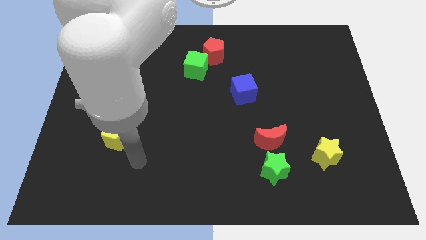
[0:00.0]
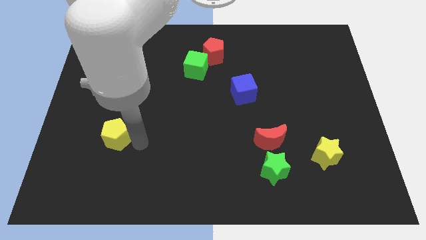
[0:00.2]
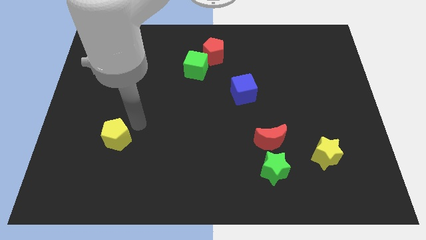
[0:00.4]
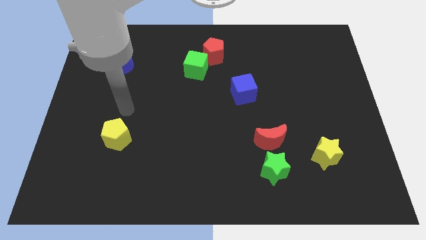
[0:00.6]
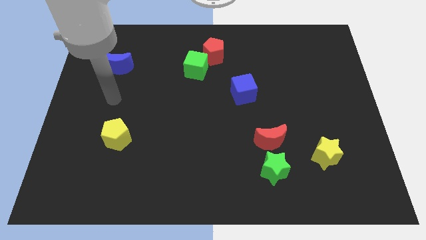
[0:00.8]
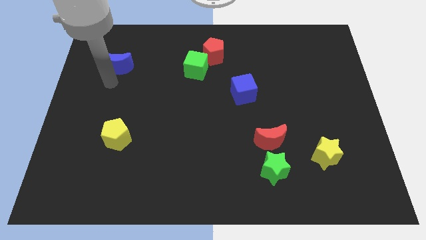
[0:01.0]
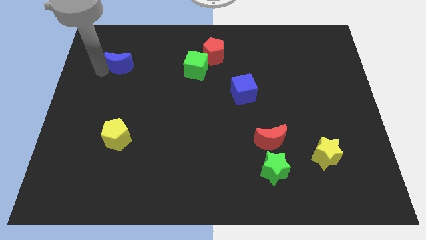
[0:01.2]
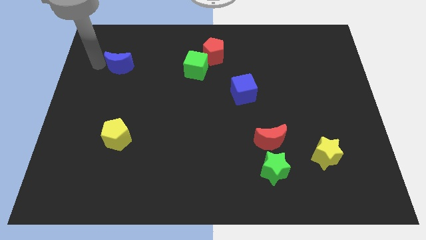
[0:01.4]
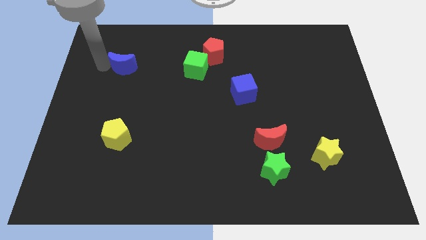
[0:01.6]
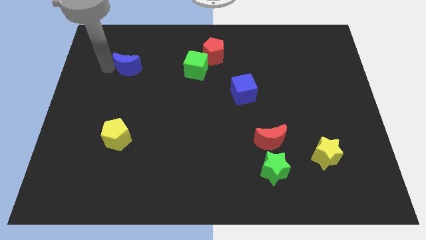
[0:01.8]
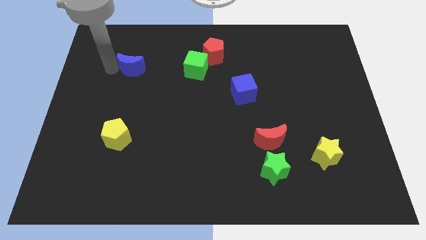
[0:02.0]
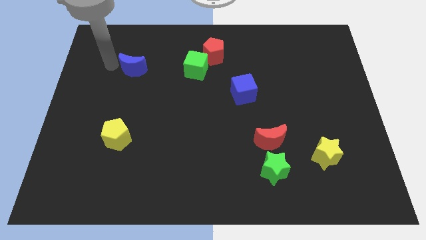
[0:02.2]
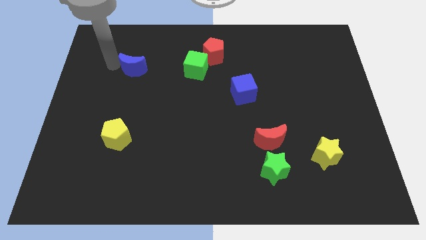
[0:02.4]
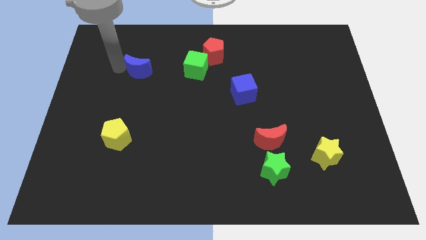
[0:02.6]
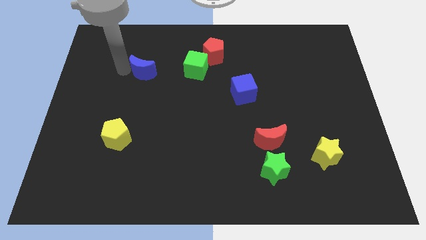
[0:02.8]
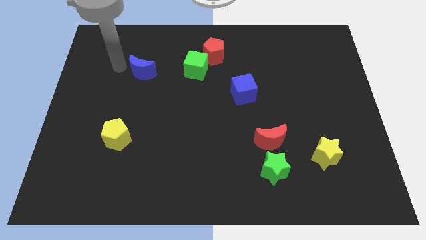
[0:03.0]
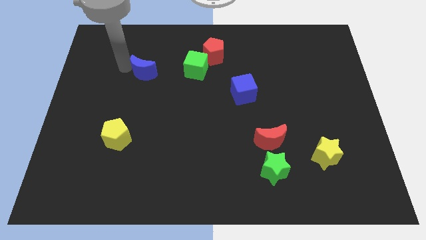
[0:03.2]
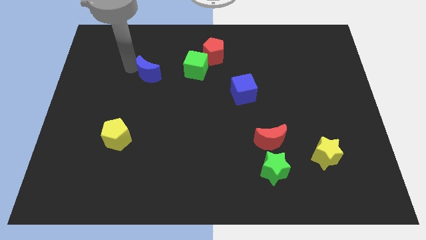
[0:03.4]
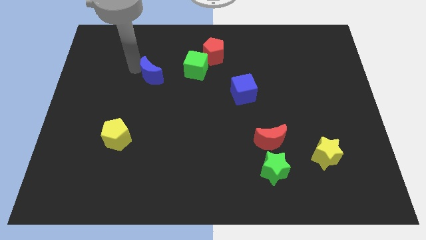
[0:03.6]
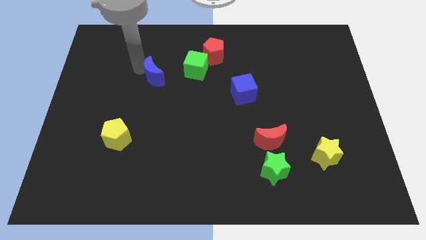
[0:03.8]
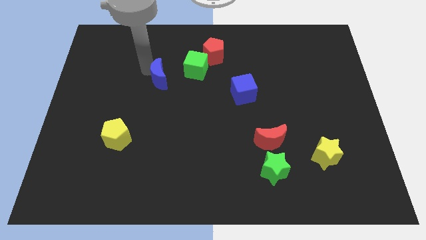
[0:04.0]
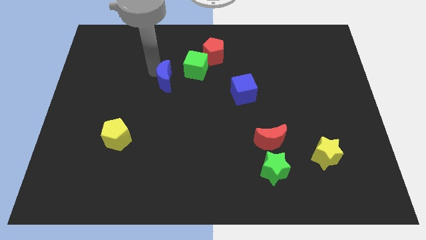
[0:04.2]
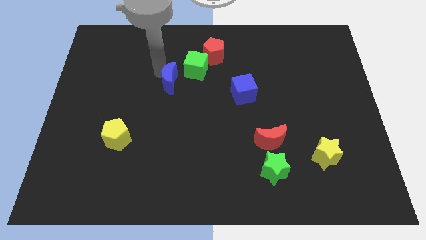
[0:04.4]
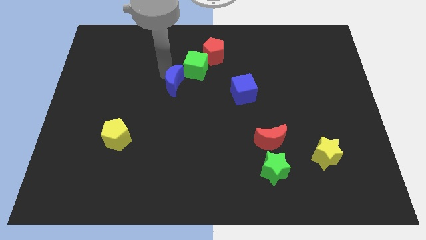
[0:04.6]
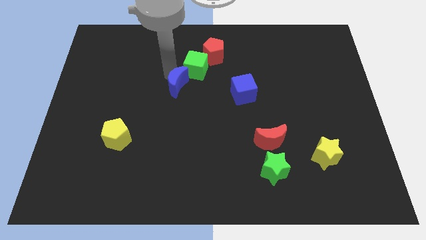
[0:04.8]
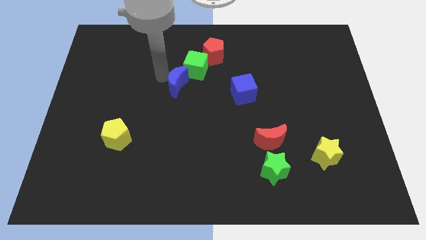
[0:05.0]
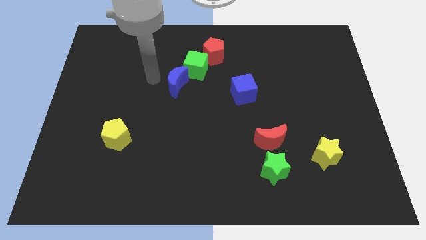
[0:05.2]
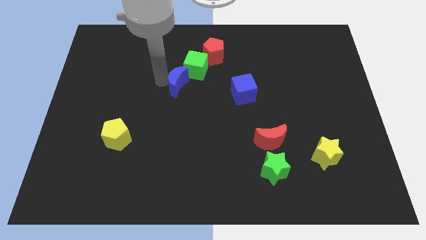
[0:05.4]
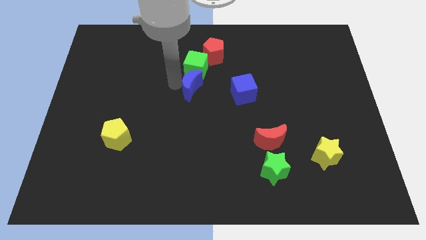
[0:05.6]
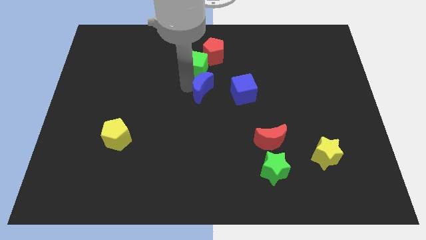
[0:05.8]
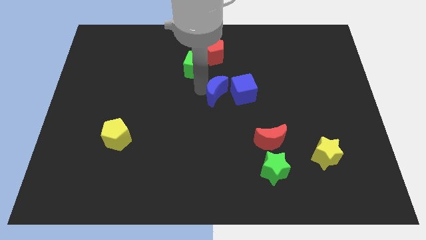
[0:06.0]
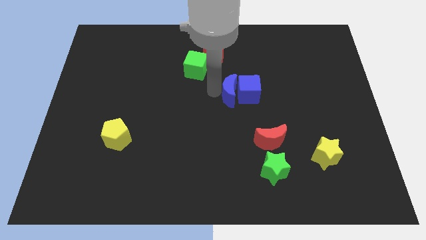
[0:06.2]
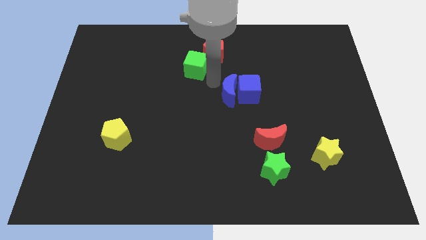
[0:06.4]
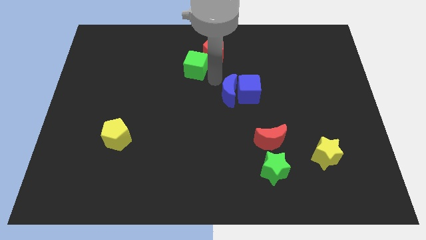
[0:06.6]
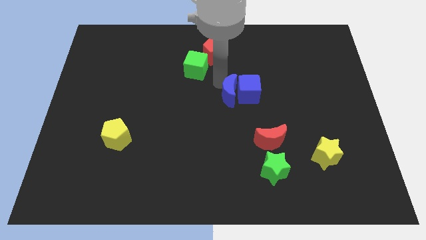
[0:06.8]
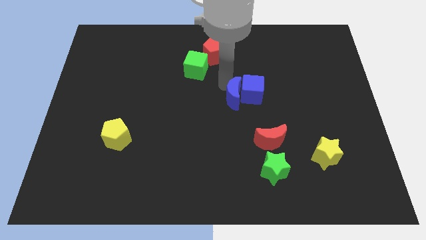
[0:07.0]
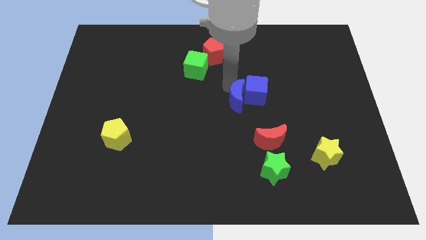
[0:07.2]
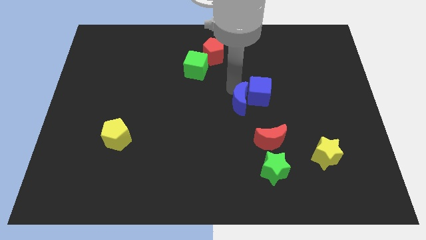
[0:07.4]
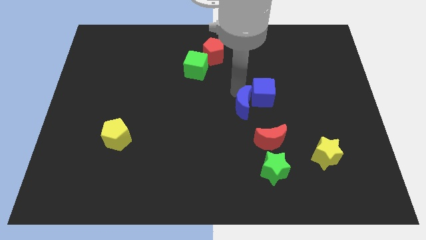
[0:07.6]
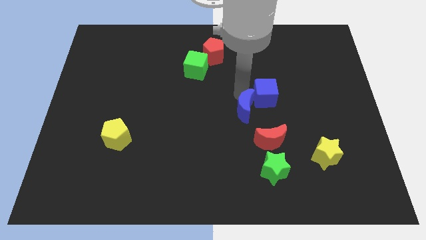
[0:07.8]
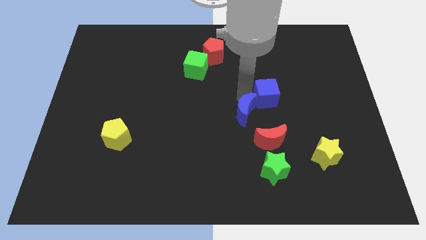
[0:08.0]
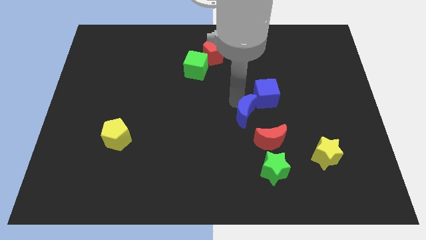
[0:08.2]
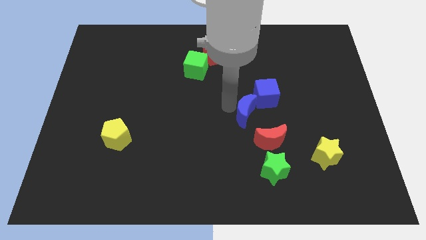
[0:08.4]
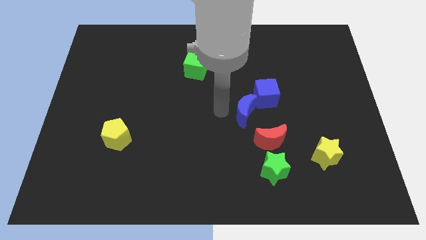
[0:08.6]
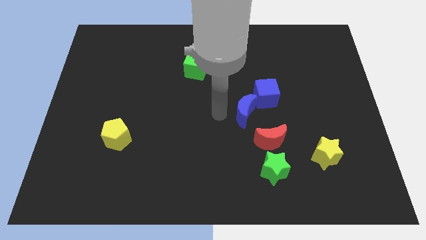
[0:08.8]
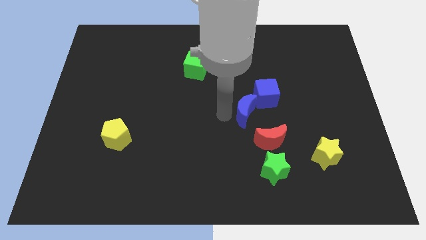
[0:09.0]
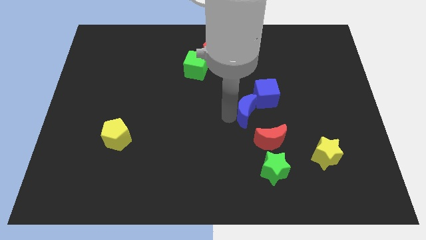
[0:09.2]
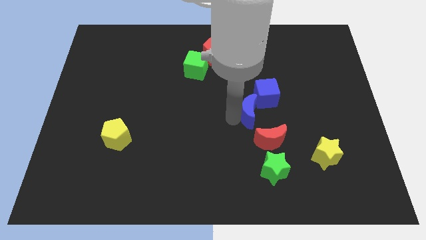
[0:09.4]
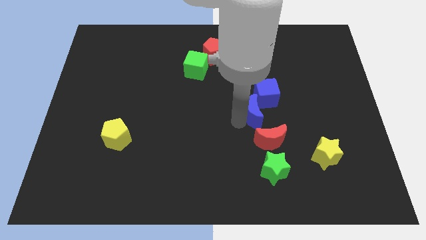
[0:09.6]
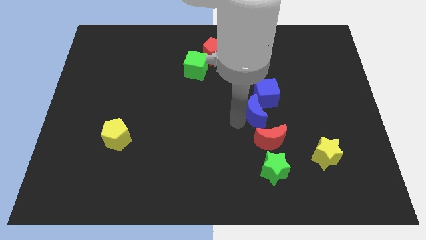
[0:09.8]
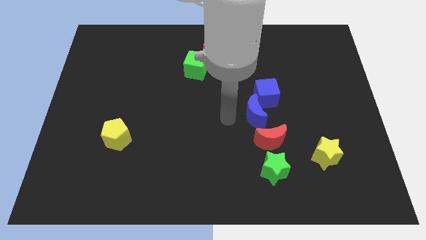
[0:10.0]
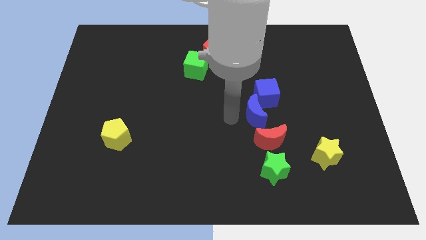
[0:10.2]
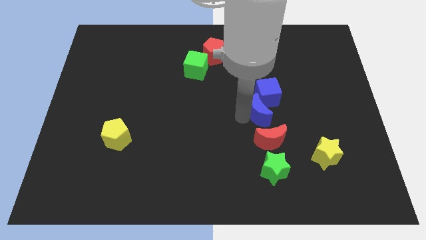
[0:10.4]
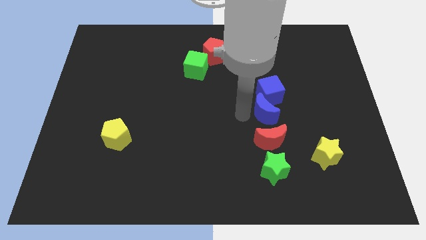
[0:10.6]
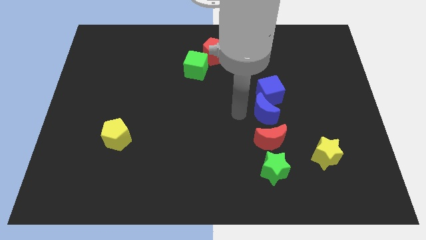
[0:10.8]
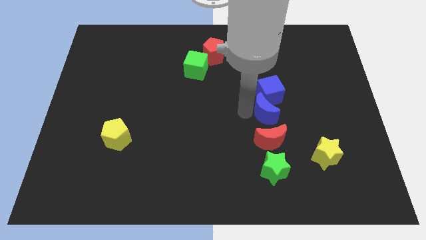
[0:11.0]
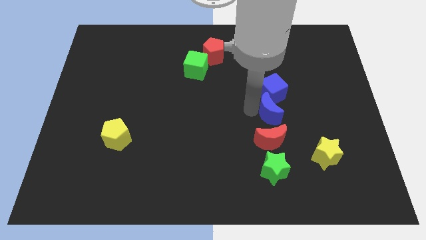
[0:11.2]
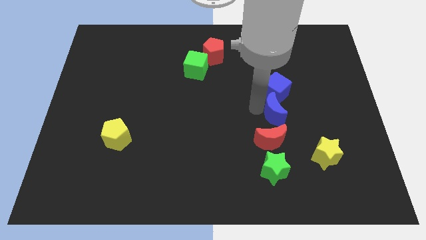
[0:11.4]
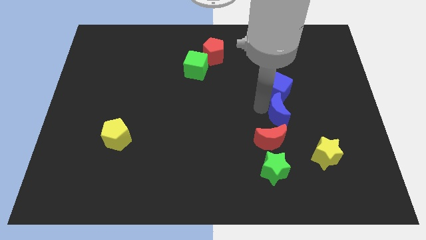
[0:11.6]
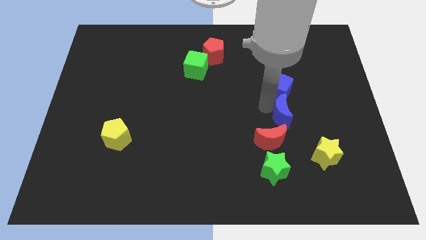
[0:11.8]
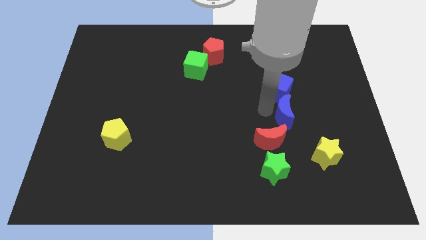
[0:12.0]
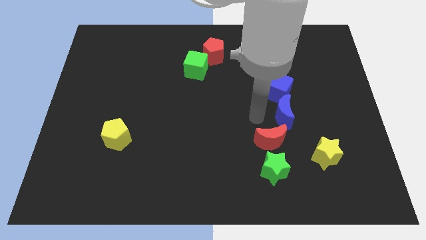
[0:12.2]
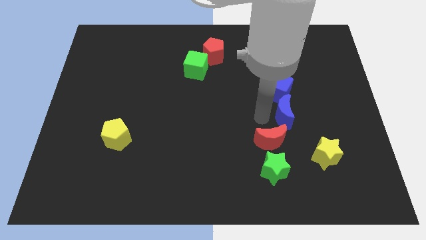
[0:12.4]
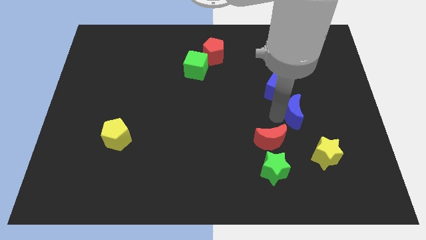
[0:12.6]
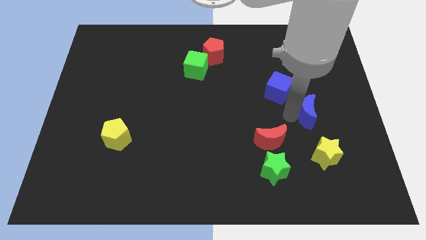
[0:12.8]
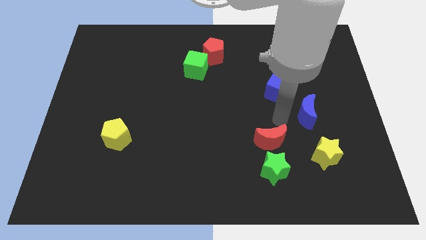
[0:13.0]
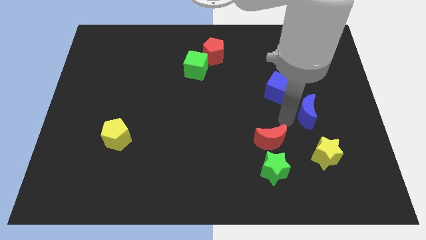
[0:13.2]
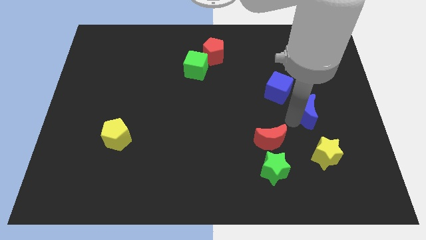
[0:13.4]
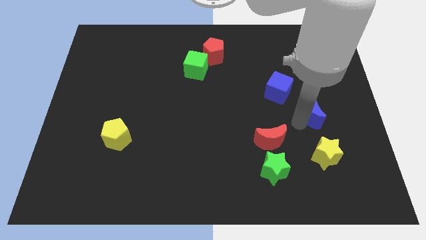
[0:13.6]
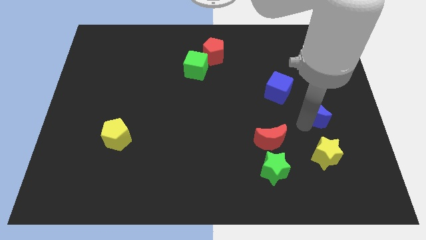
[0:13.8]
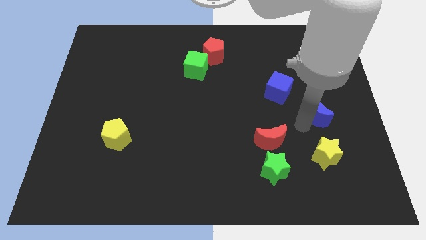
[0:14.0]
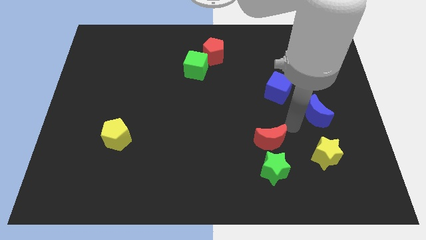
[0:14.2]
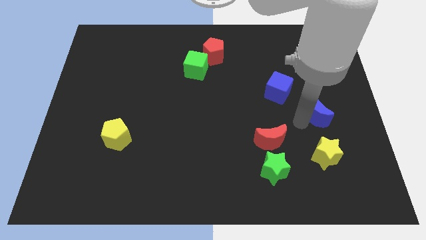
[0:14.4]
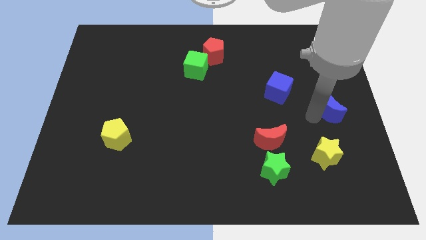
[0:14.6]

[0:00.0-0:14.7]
slide the blue moon to the center right
